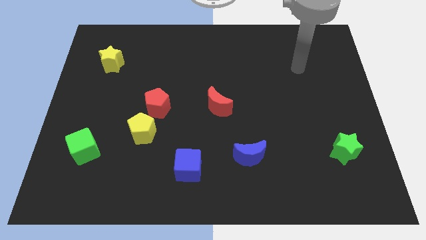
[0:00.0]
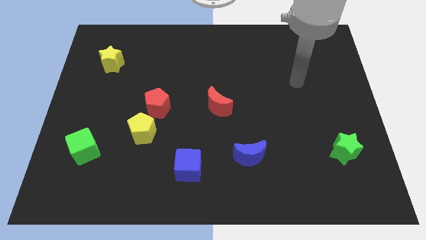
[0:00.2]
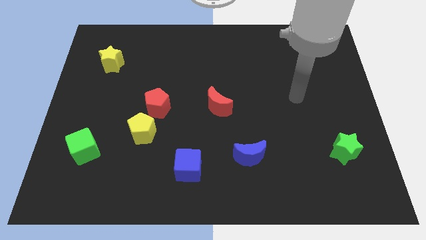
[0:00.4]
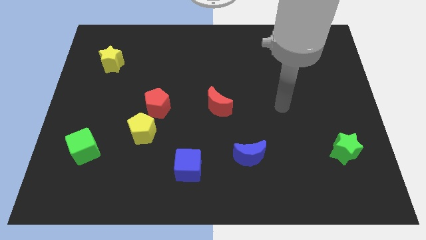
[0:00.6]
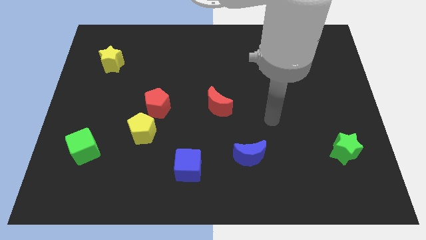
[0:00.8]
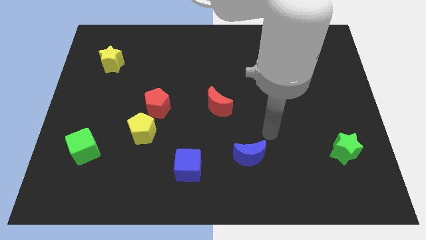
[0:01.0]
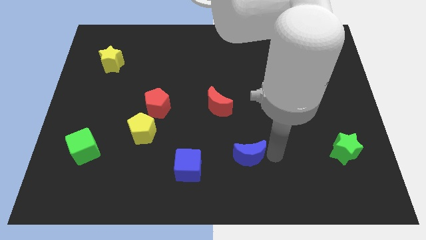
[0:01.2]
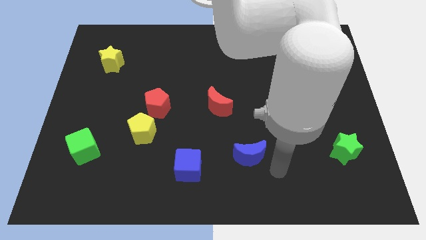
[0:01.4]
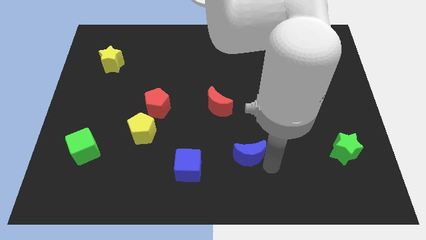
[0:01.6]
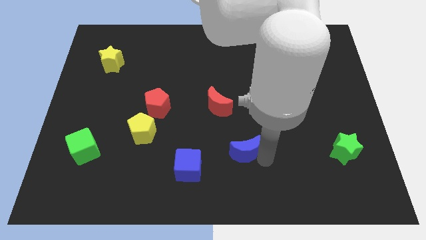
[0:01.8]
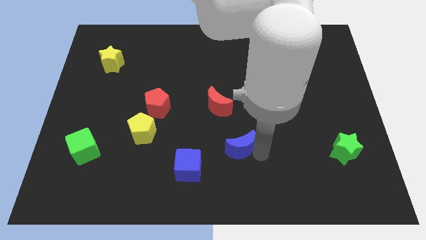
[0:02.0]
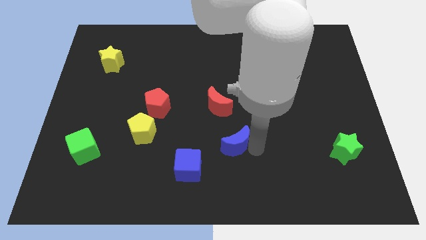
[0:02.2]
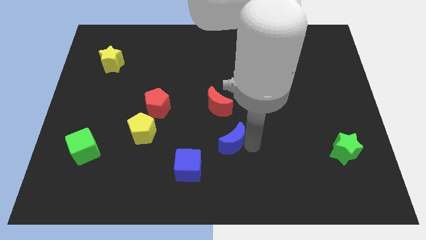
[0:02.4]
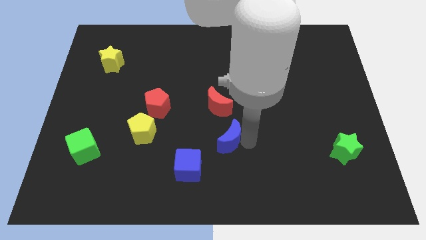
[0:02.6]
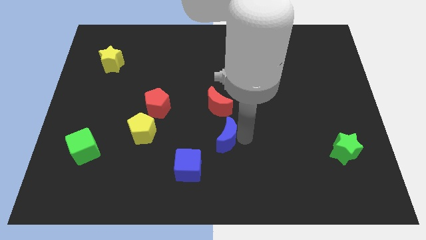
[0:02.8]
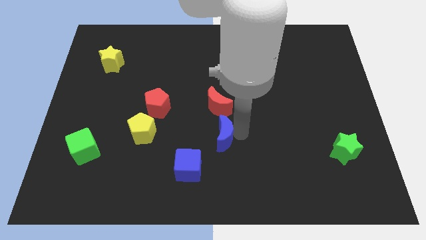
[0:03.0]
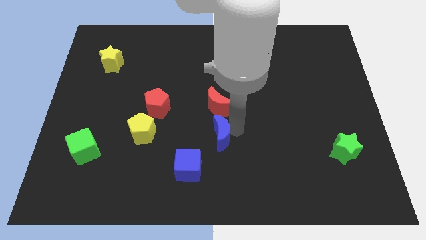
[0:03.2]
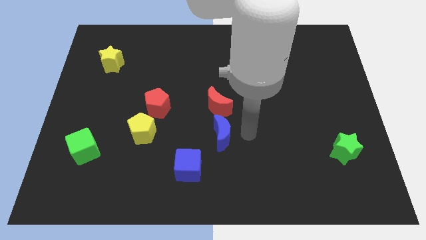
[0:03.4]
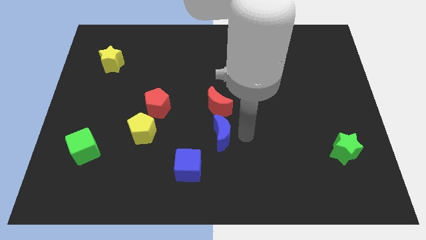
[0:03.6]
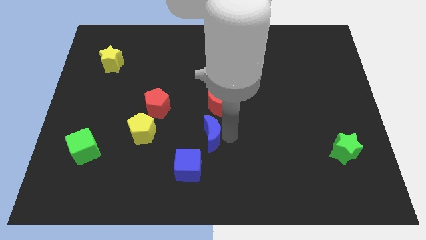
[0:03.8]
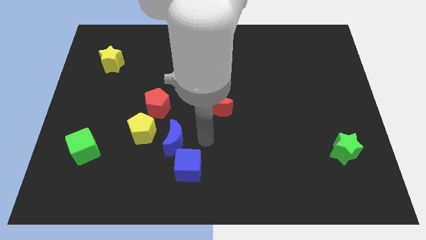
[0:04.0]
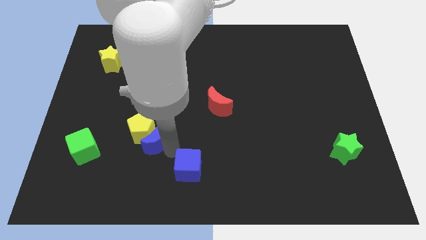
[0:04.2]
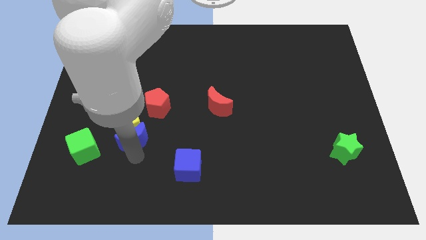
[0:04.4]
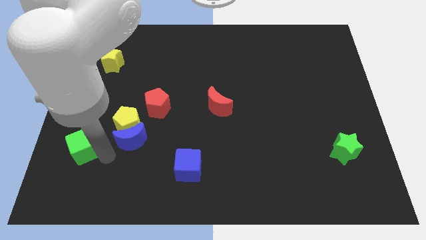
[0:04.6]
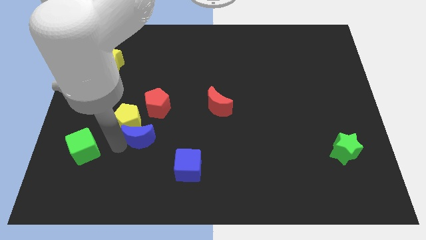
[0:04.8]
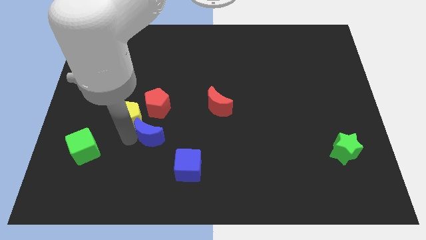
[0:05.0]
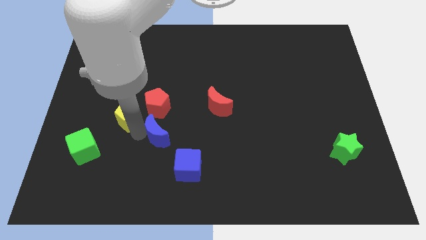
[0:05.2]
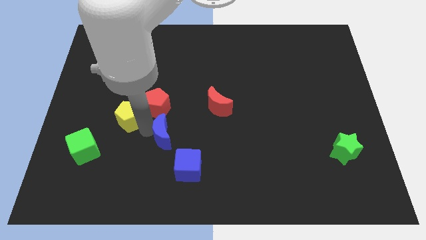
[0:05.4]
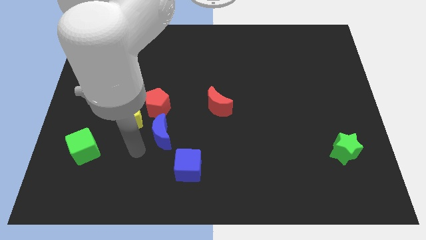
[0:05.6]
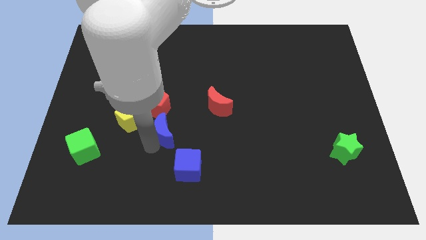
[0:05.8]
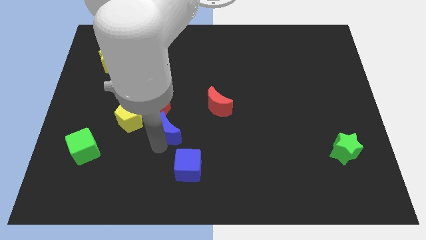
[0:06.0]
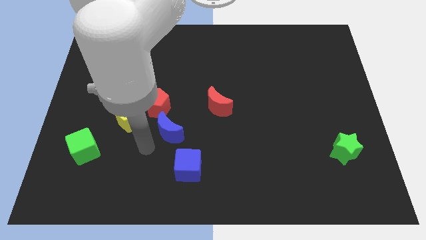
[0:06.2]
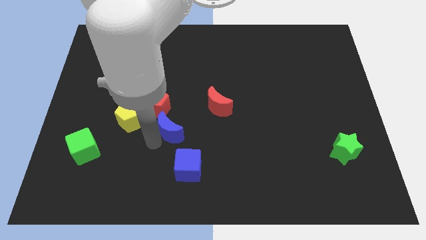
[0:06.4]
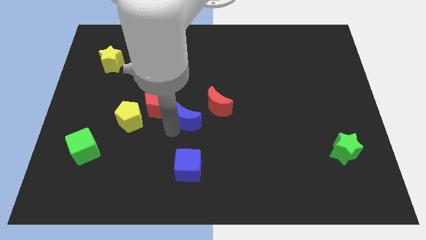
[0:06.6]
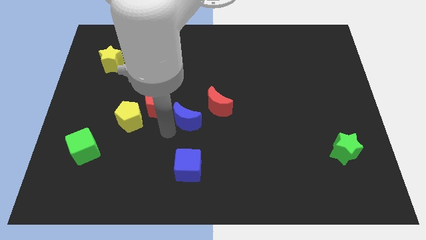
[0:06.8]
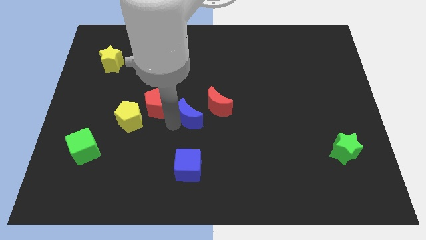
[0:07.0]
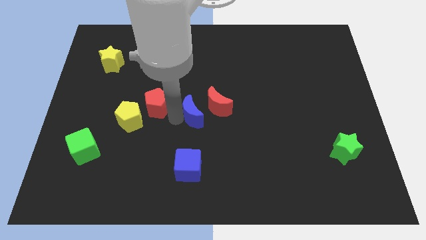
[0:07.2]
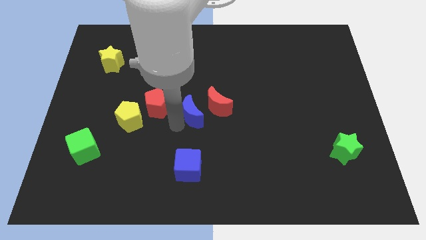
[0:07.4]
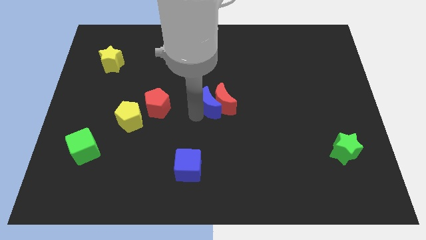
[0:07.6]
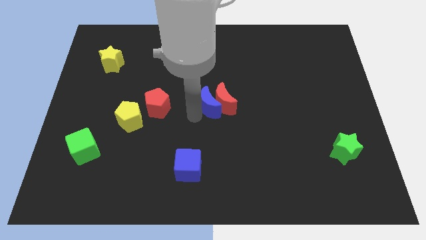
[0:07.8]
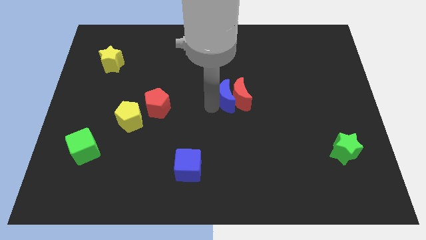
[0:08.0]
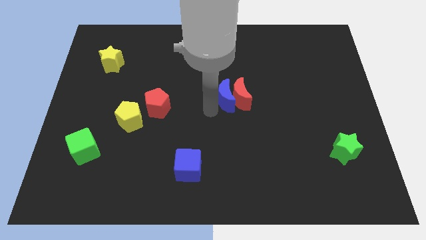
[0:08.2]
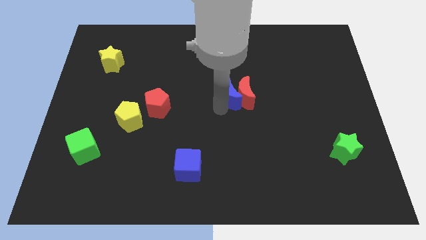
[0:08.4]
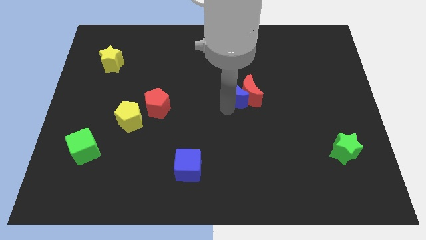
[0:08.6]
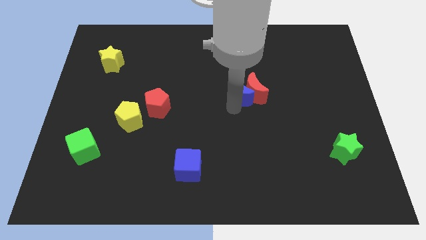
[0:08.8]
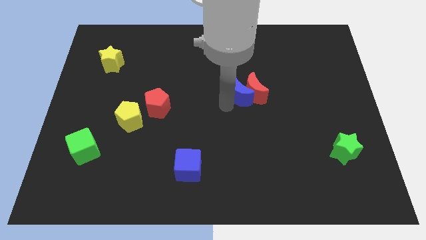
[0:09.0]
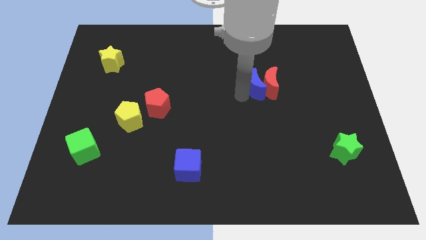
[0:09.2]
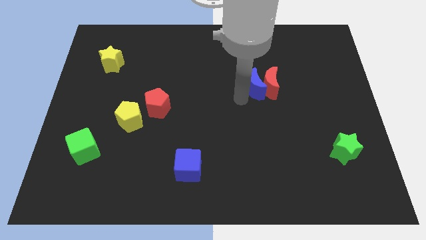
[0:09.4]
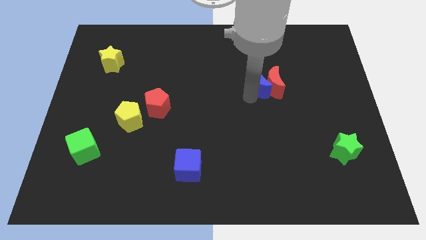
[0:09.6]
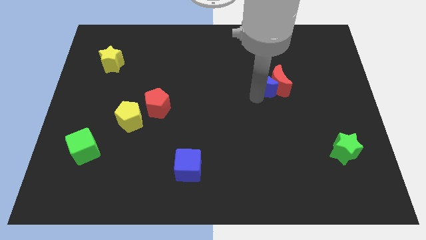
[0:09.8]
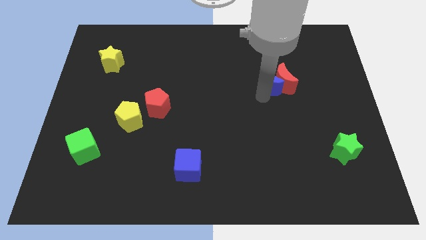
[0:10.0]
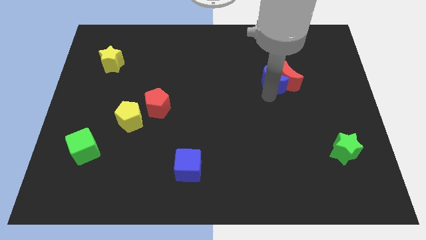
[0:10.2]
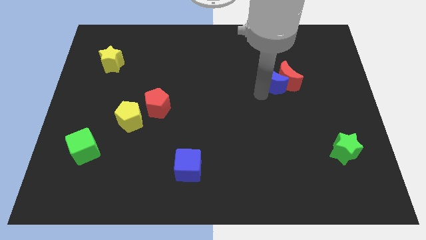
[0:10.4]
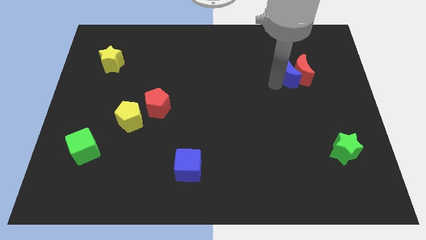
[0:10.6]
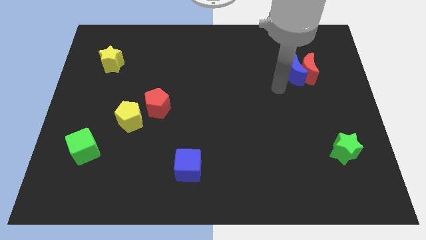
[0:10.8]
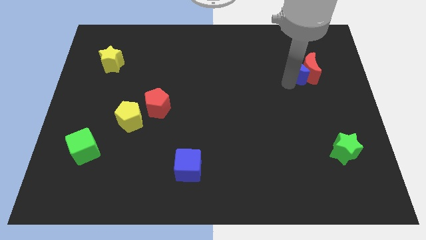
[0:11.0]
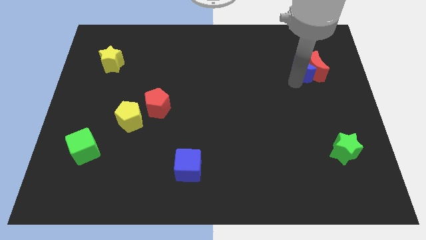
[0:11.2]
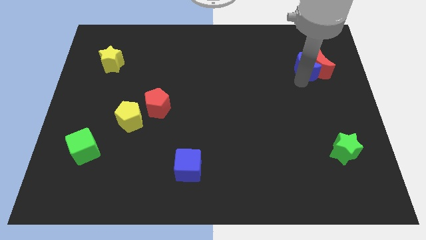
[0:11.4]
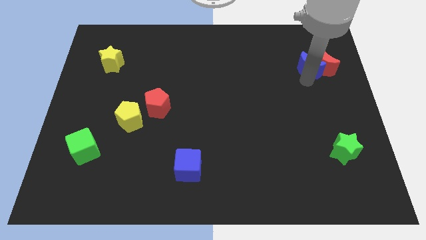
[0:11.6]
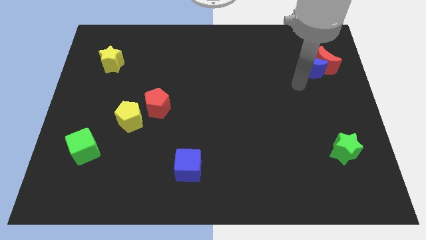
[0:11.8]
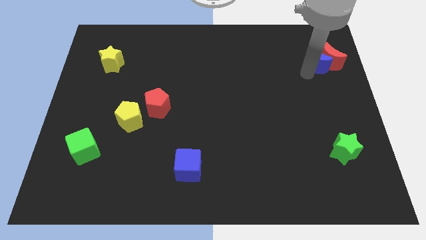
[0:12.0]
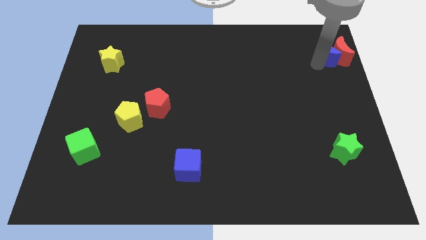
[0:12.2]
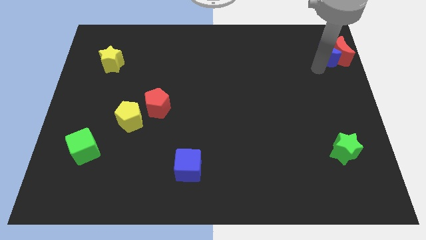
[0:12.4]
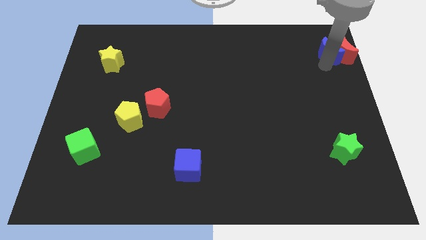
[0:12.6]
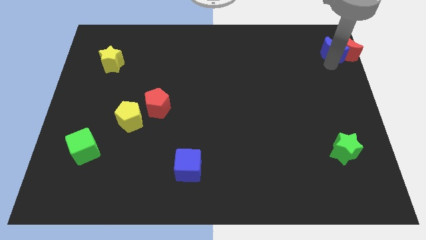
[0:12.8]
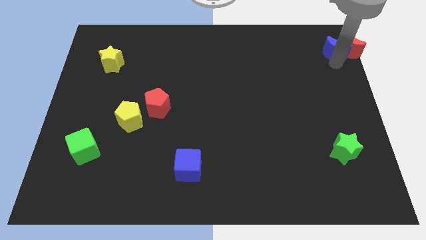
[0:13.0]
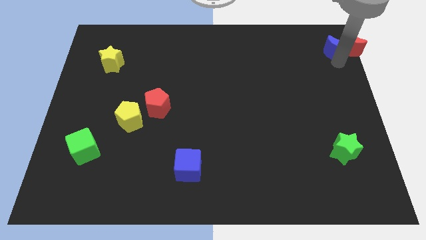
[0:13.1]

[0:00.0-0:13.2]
put the blue moon to the top right of the board
